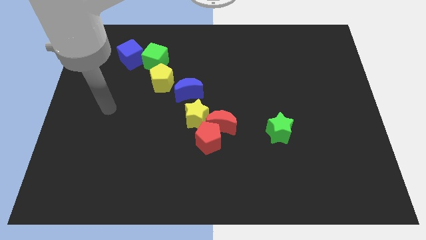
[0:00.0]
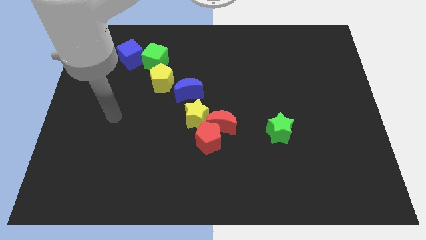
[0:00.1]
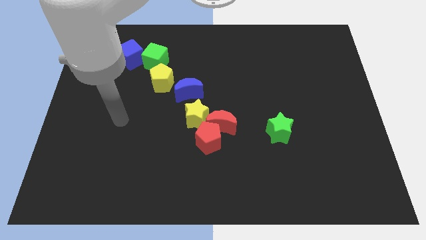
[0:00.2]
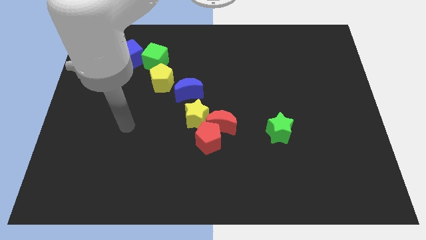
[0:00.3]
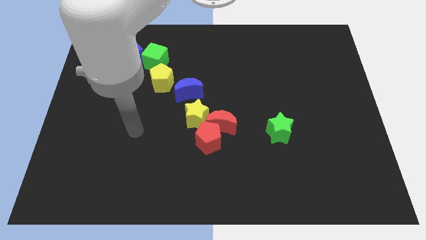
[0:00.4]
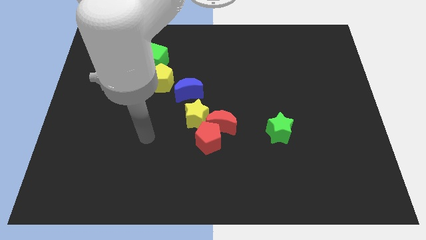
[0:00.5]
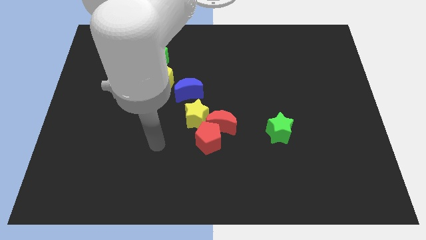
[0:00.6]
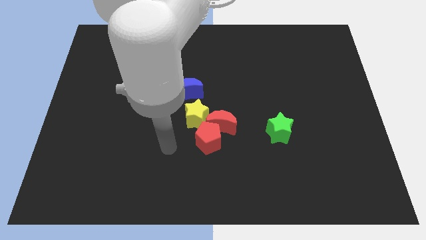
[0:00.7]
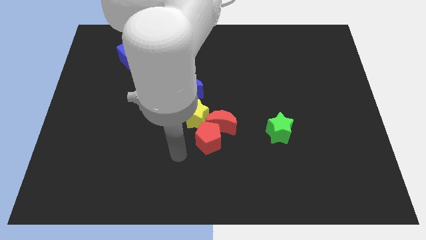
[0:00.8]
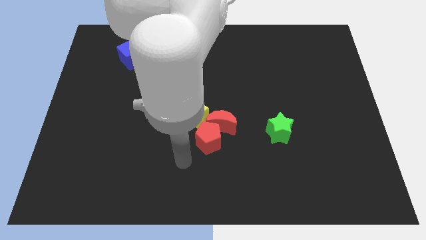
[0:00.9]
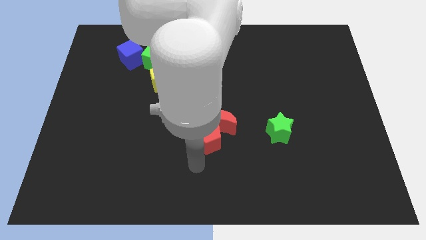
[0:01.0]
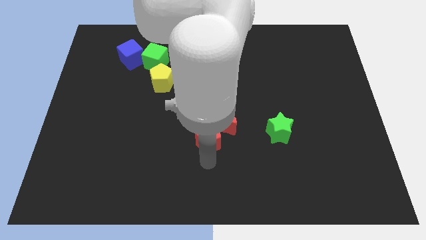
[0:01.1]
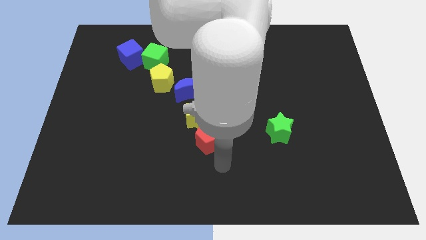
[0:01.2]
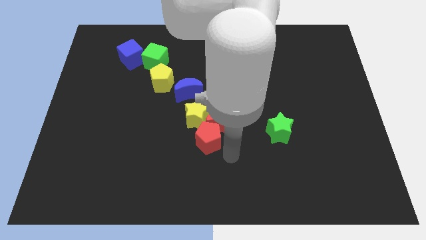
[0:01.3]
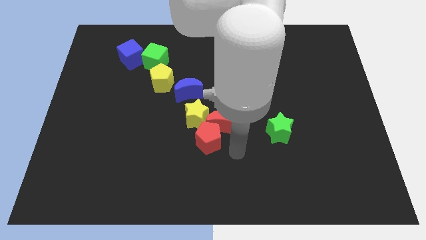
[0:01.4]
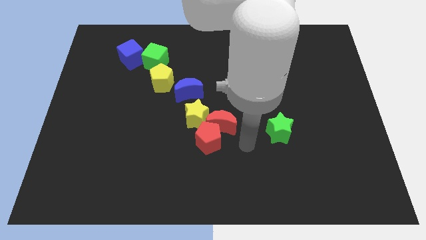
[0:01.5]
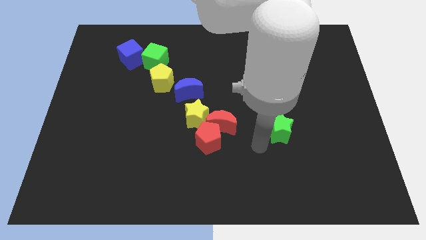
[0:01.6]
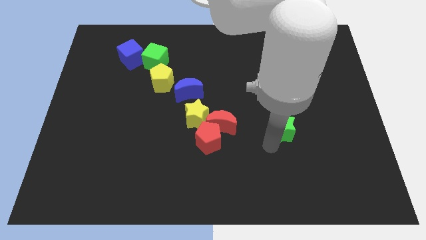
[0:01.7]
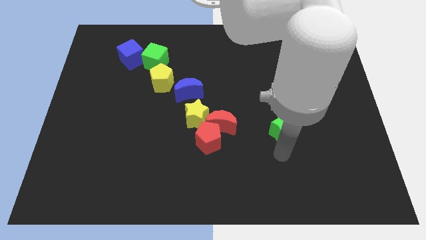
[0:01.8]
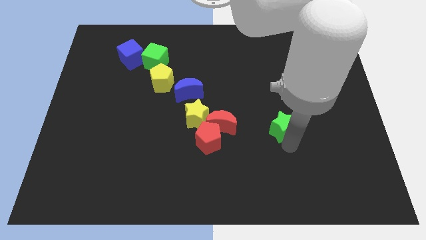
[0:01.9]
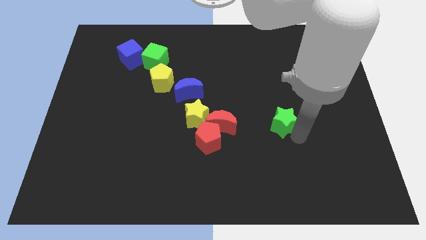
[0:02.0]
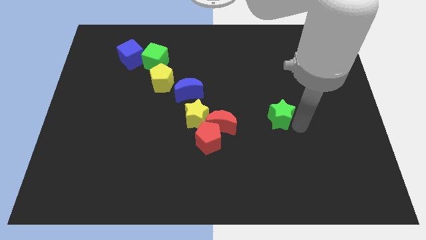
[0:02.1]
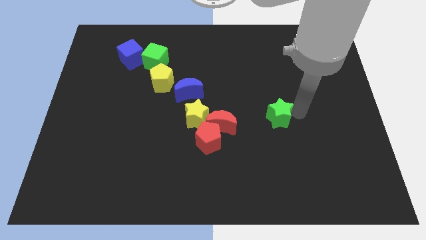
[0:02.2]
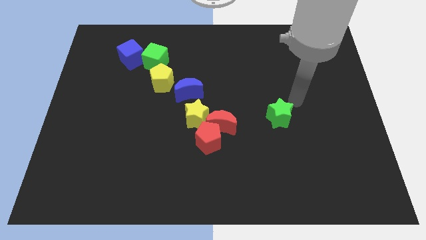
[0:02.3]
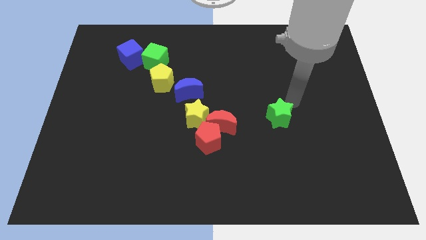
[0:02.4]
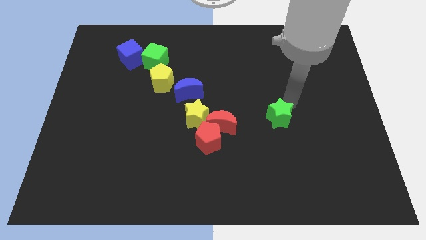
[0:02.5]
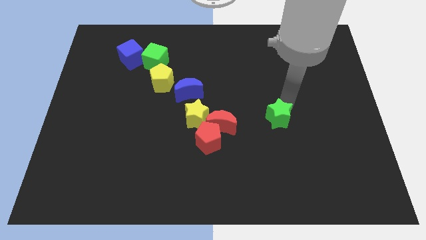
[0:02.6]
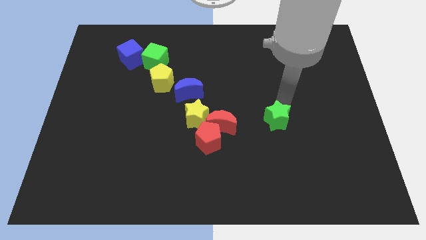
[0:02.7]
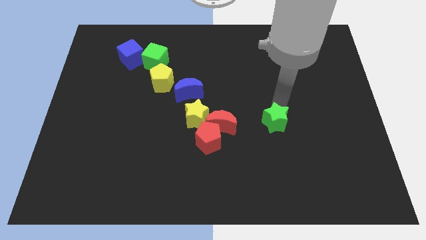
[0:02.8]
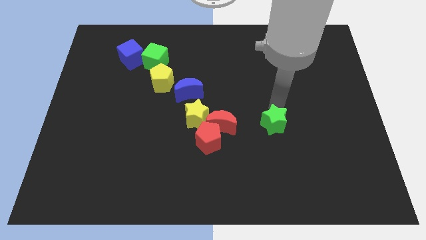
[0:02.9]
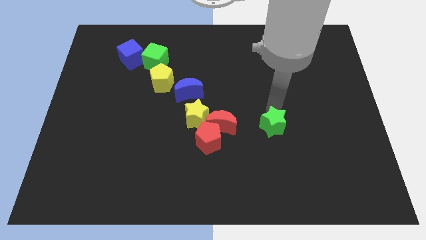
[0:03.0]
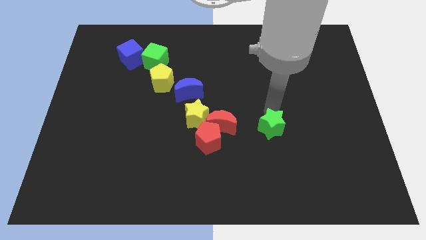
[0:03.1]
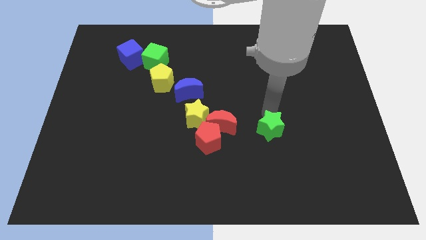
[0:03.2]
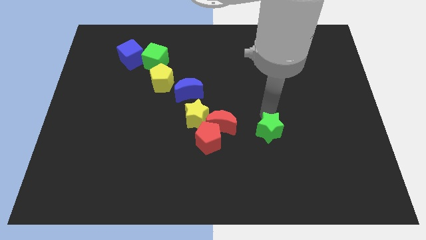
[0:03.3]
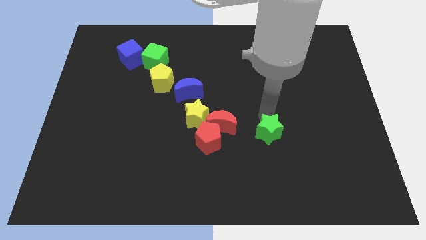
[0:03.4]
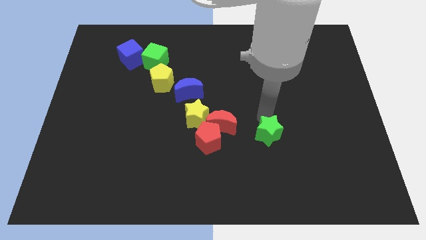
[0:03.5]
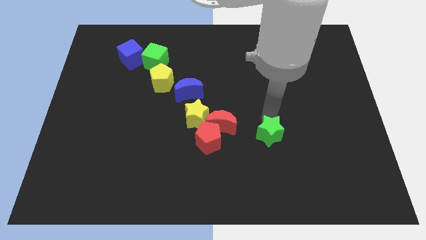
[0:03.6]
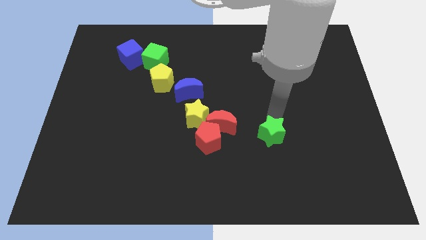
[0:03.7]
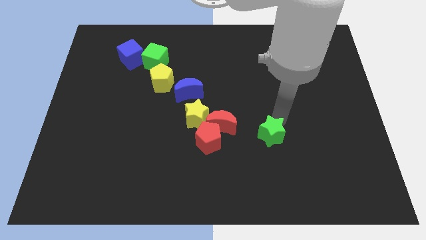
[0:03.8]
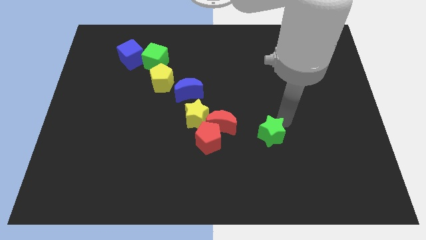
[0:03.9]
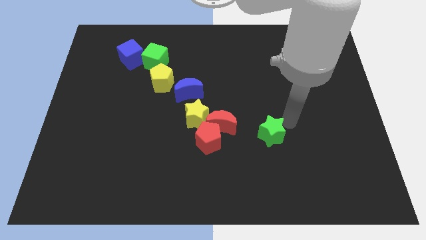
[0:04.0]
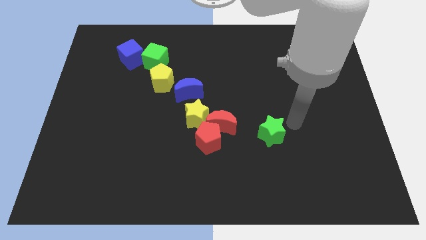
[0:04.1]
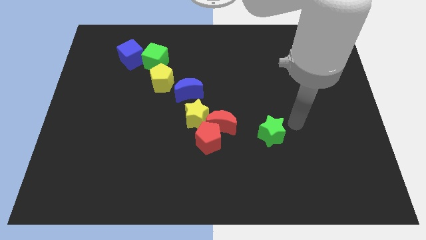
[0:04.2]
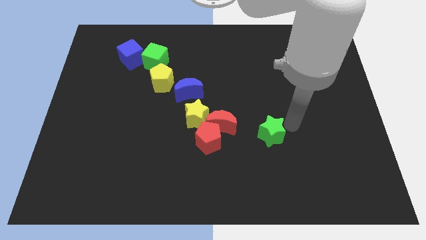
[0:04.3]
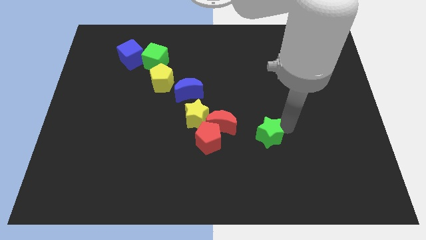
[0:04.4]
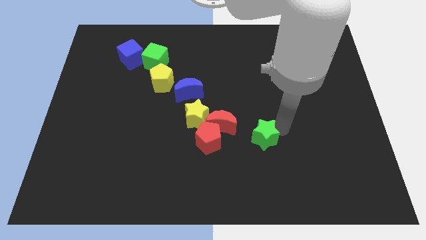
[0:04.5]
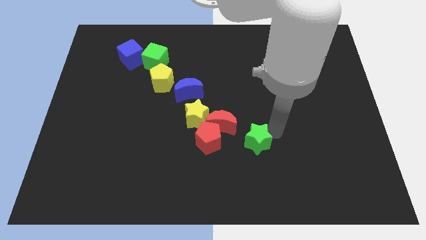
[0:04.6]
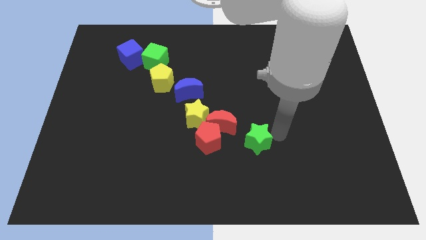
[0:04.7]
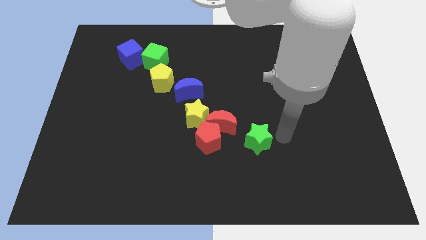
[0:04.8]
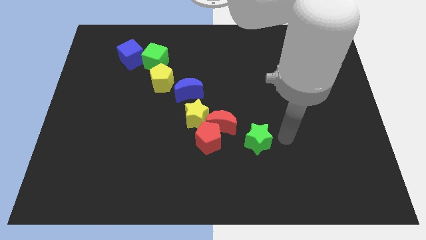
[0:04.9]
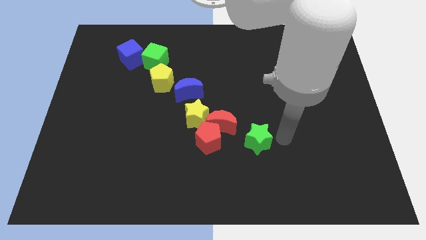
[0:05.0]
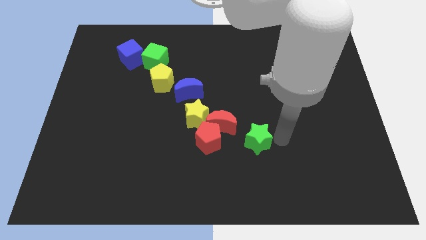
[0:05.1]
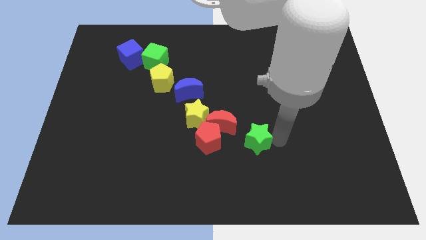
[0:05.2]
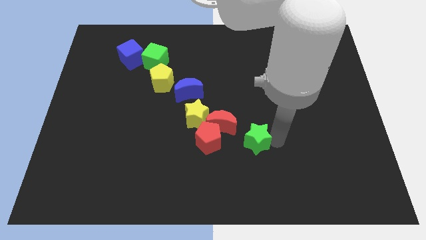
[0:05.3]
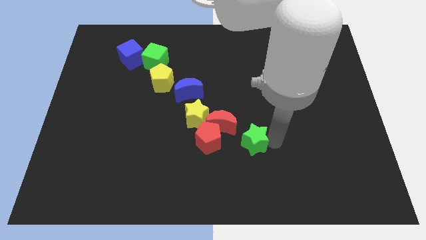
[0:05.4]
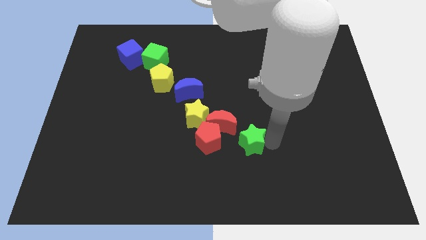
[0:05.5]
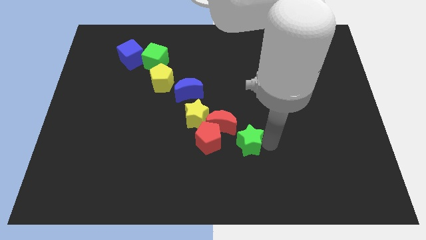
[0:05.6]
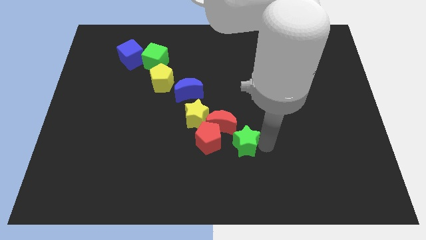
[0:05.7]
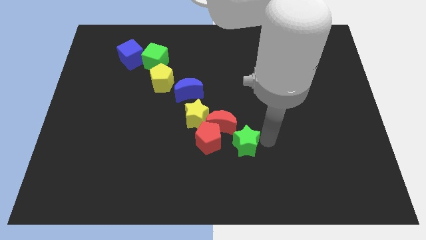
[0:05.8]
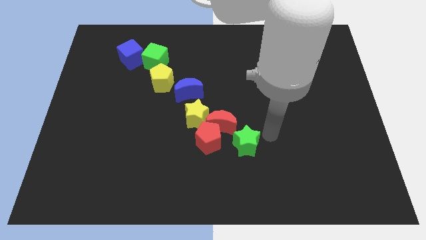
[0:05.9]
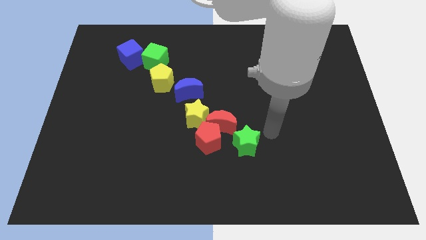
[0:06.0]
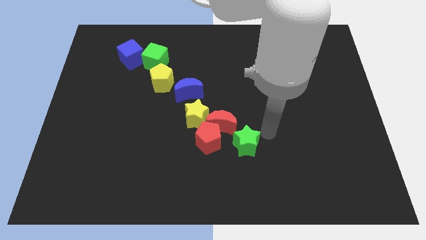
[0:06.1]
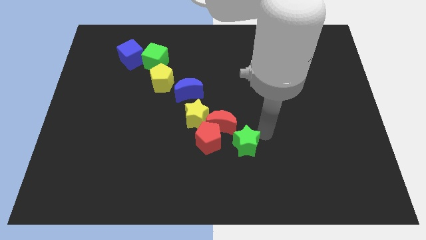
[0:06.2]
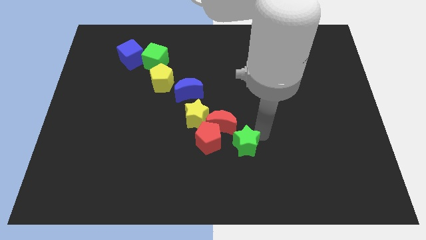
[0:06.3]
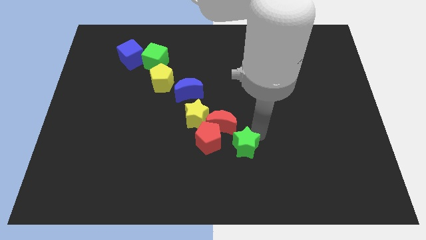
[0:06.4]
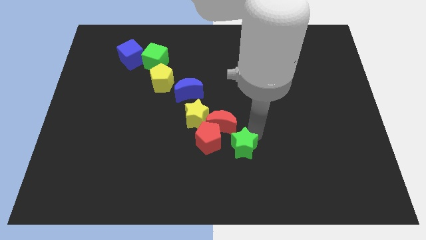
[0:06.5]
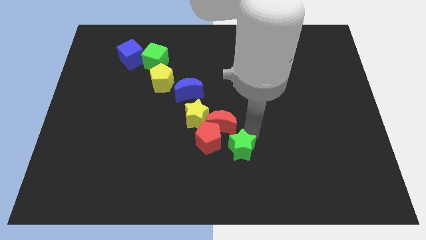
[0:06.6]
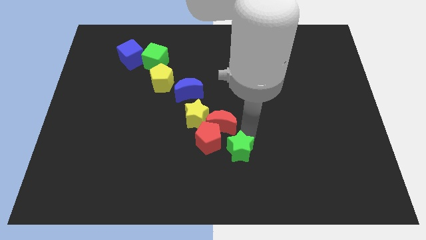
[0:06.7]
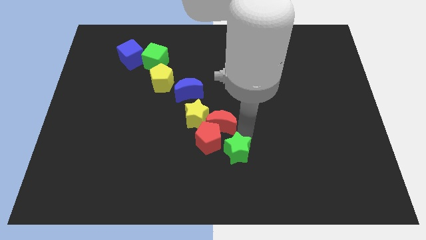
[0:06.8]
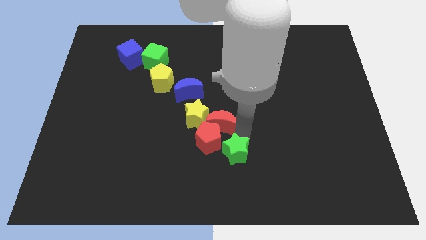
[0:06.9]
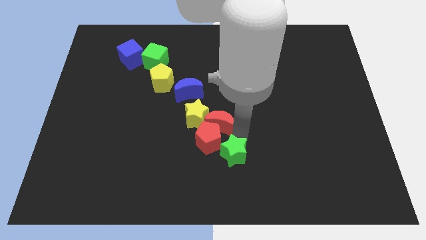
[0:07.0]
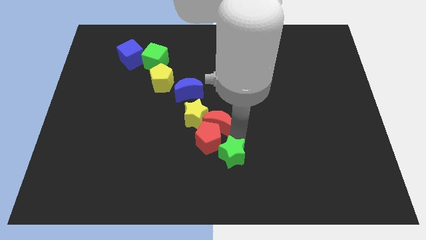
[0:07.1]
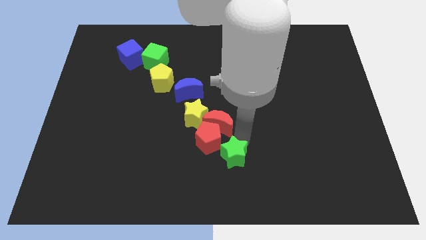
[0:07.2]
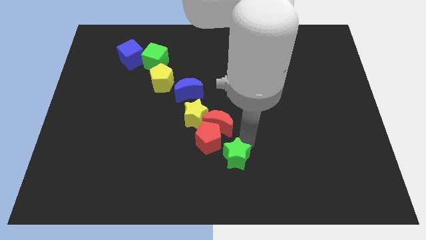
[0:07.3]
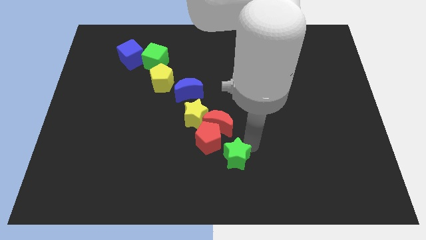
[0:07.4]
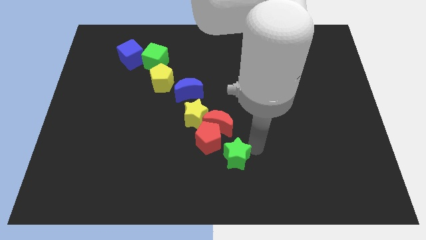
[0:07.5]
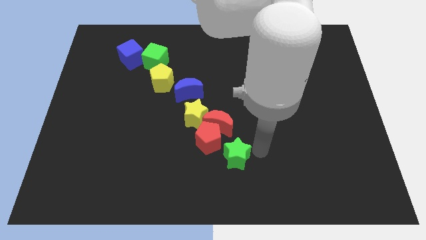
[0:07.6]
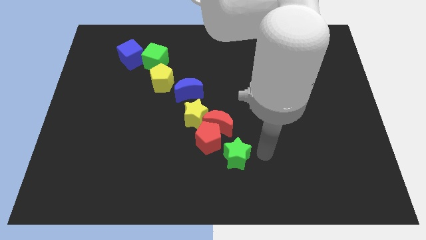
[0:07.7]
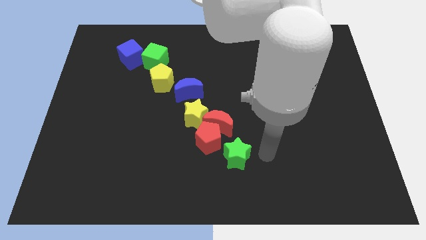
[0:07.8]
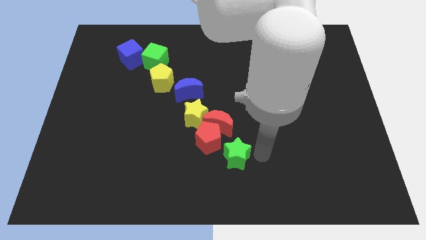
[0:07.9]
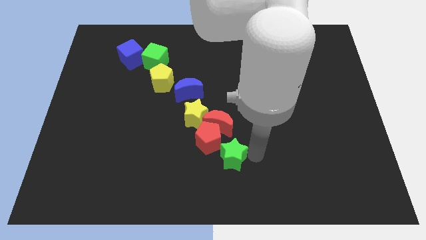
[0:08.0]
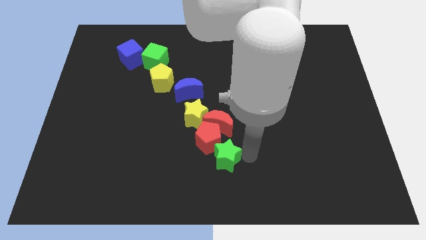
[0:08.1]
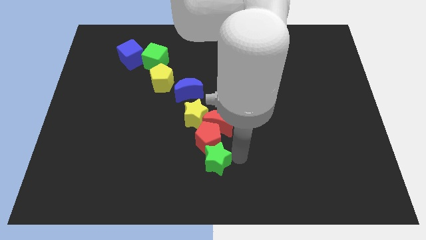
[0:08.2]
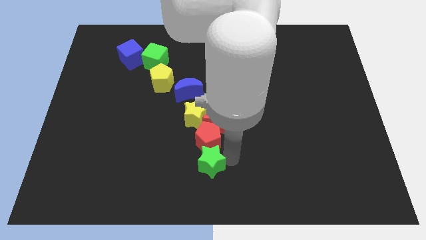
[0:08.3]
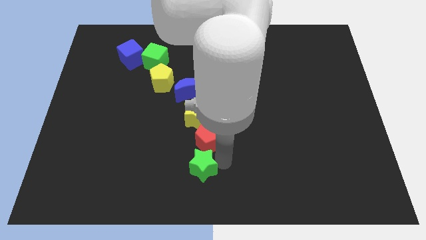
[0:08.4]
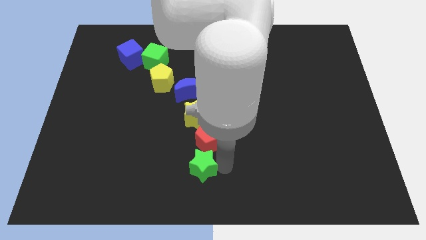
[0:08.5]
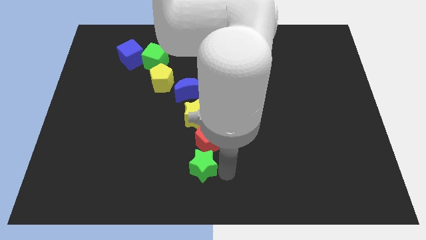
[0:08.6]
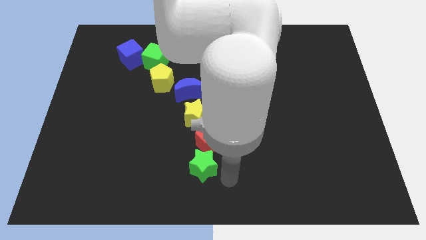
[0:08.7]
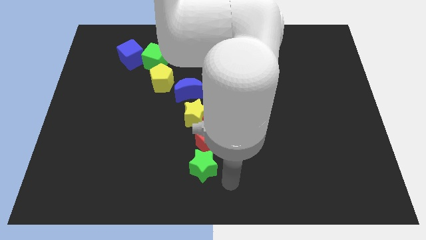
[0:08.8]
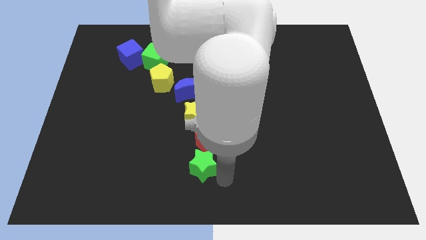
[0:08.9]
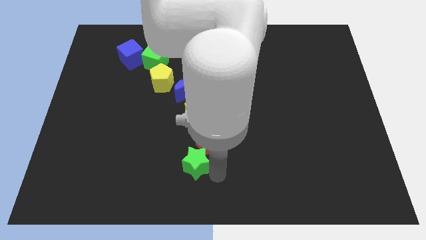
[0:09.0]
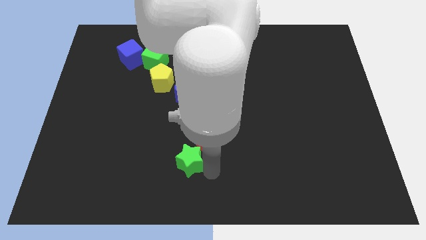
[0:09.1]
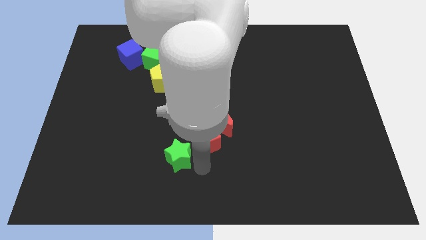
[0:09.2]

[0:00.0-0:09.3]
slide the green star to the left
